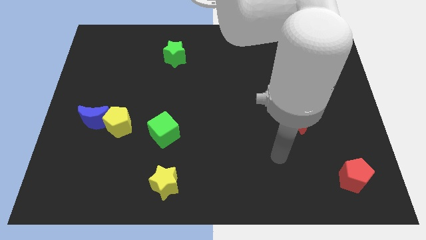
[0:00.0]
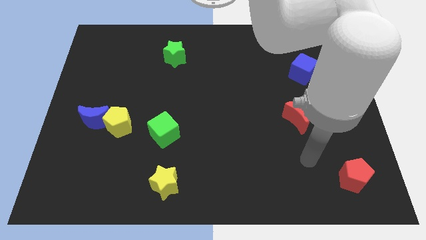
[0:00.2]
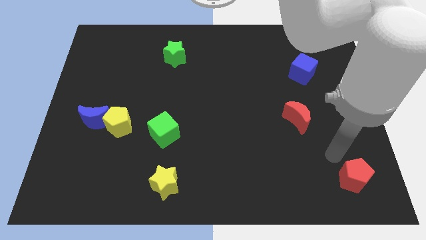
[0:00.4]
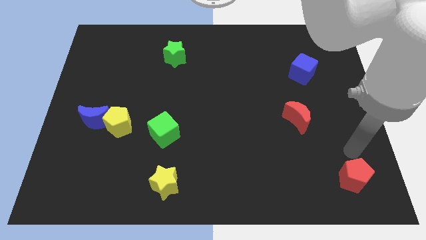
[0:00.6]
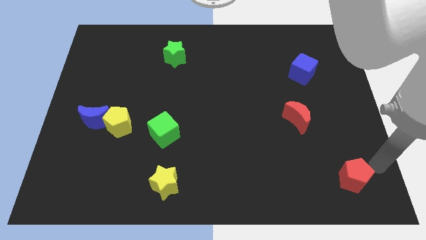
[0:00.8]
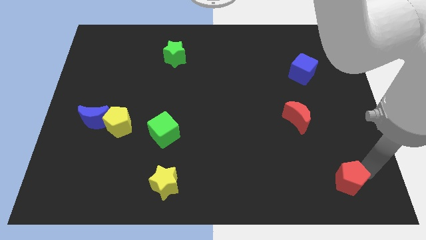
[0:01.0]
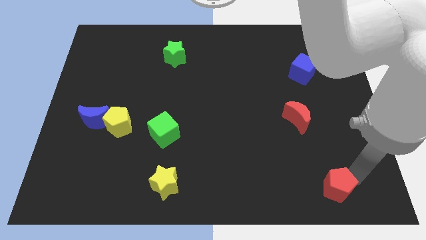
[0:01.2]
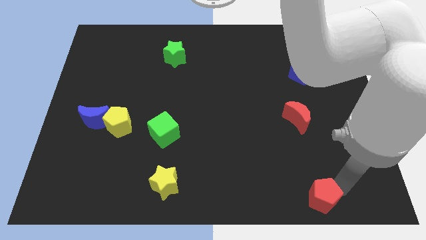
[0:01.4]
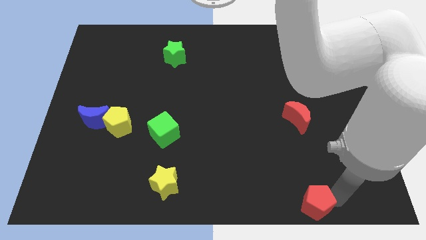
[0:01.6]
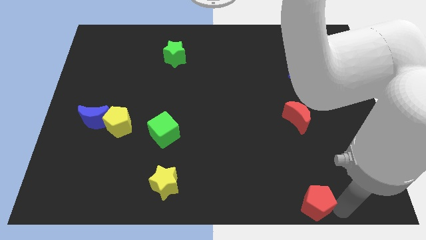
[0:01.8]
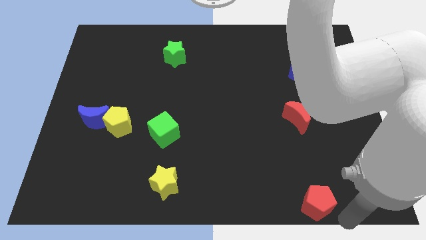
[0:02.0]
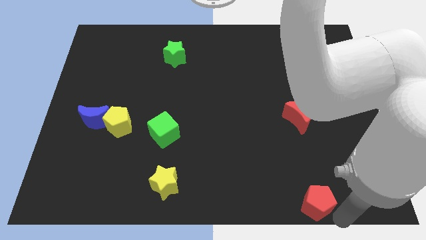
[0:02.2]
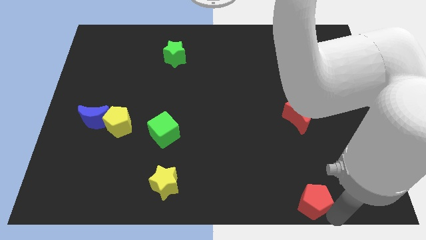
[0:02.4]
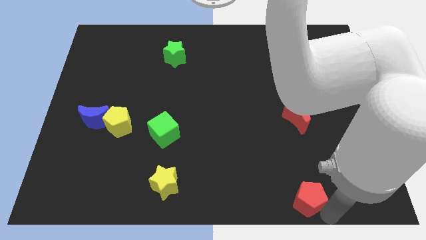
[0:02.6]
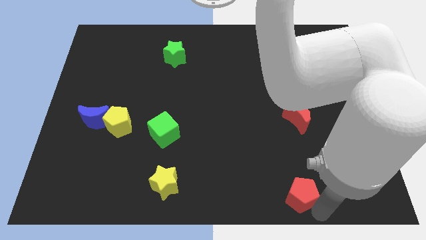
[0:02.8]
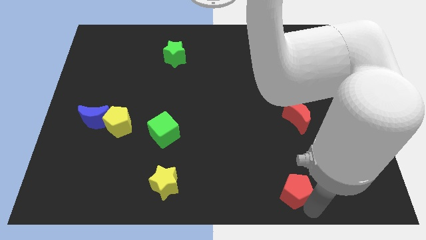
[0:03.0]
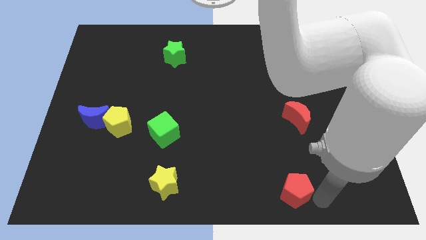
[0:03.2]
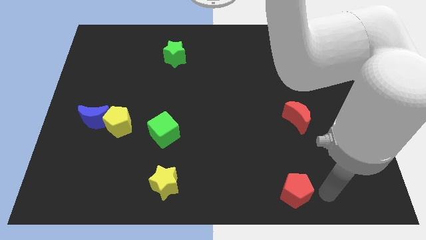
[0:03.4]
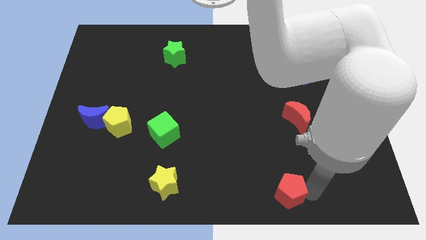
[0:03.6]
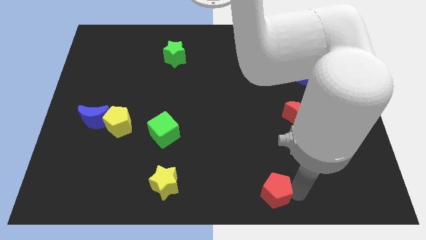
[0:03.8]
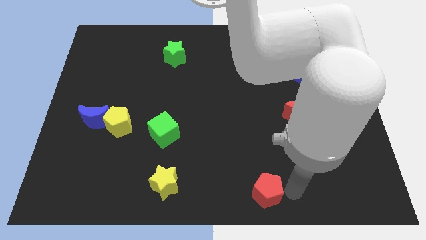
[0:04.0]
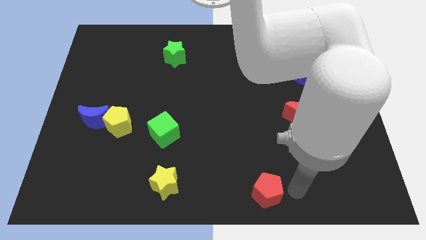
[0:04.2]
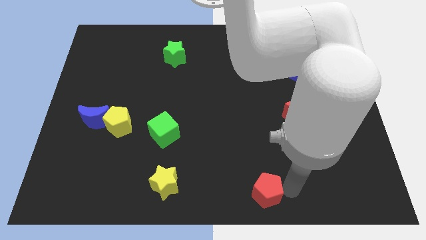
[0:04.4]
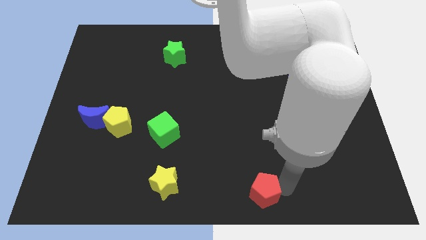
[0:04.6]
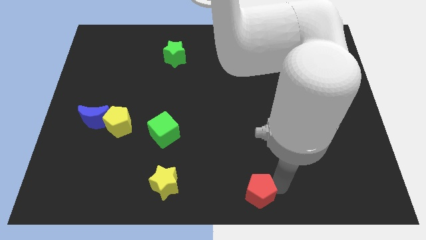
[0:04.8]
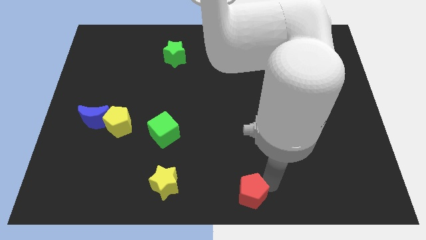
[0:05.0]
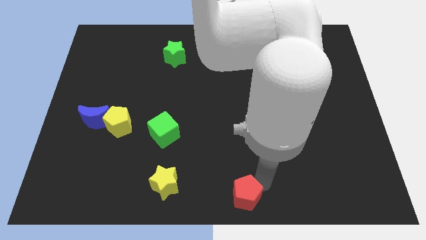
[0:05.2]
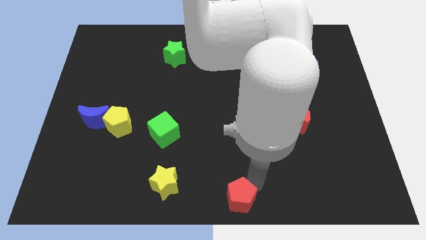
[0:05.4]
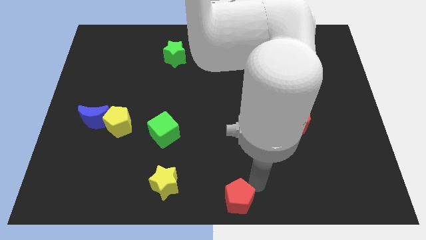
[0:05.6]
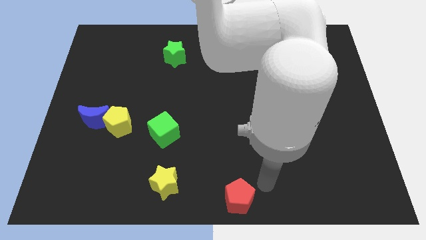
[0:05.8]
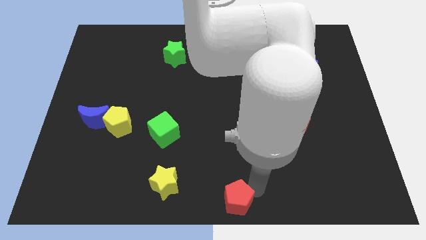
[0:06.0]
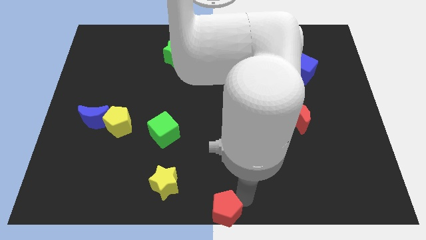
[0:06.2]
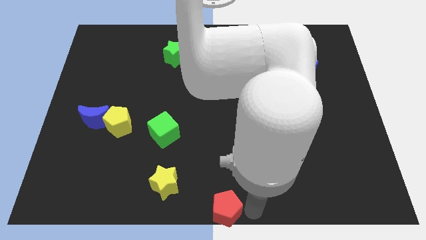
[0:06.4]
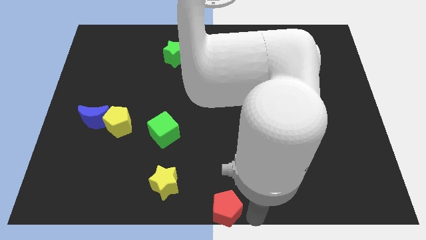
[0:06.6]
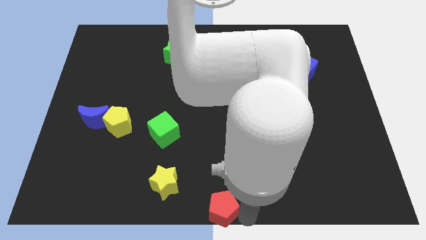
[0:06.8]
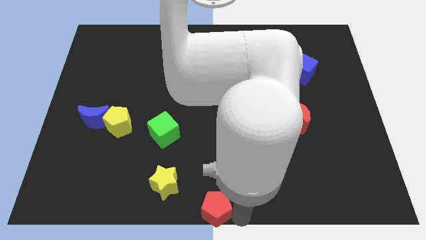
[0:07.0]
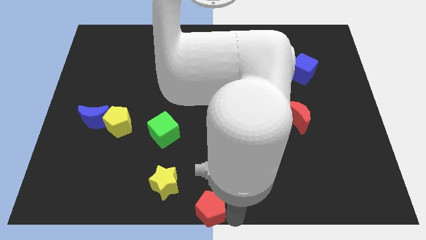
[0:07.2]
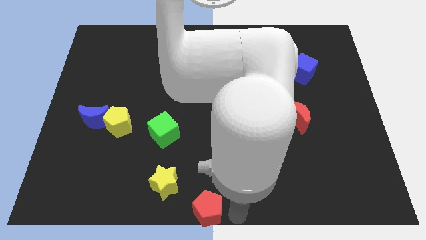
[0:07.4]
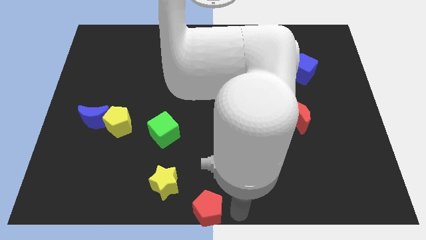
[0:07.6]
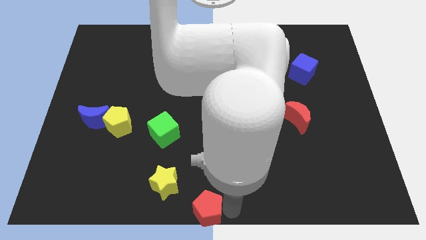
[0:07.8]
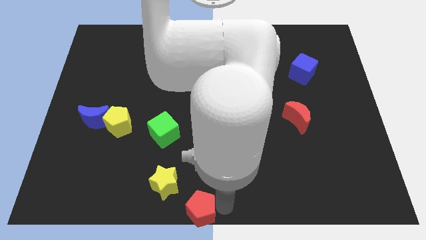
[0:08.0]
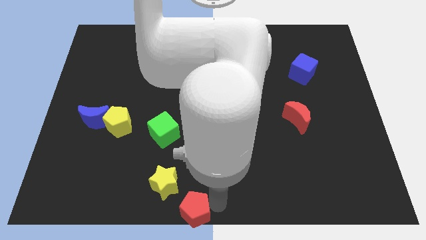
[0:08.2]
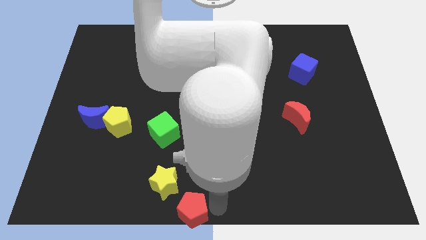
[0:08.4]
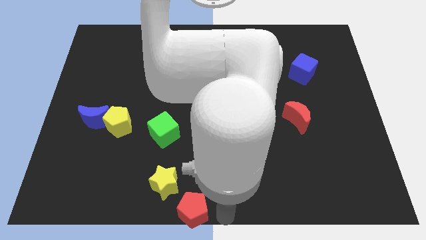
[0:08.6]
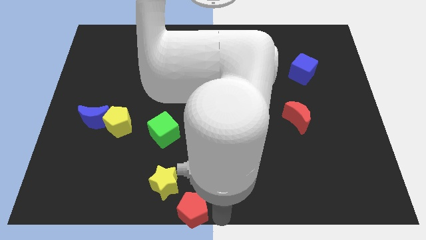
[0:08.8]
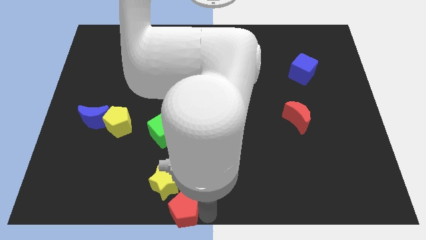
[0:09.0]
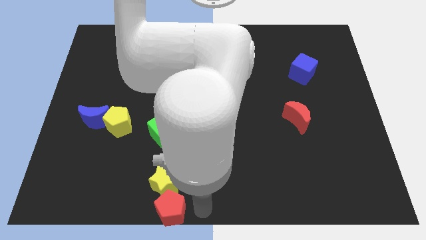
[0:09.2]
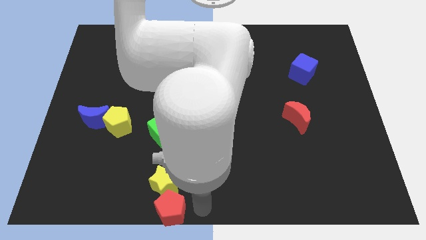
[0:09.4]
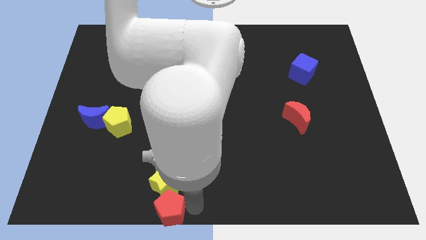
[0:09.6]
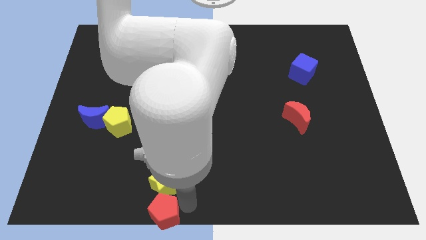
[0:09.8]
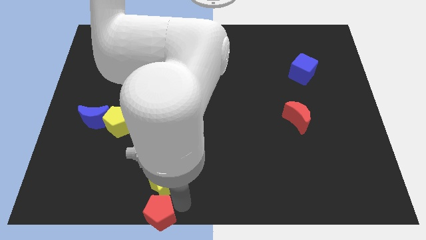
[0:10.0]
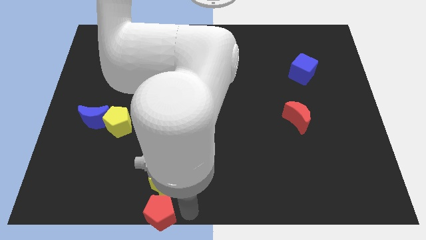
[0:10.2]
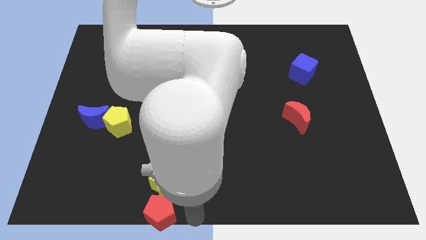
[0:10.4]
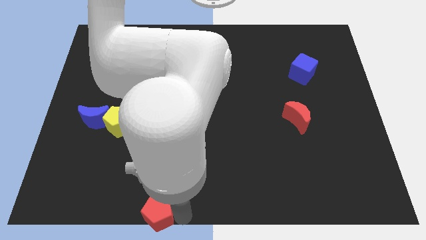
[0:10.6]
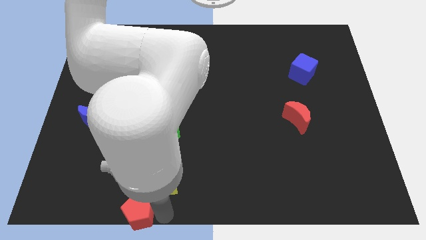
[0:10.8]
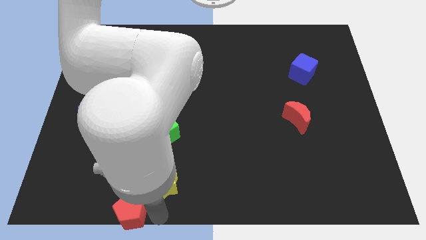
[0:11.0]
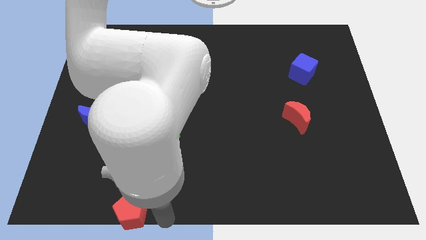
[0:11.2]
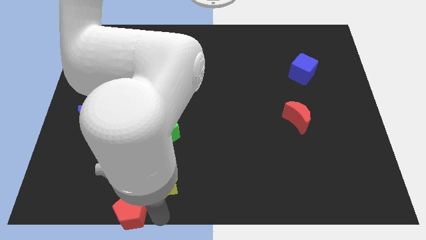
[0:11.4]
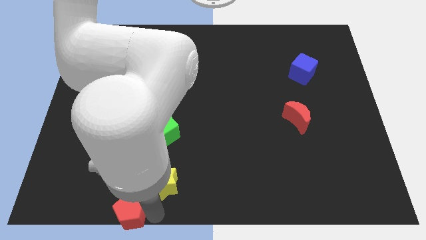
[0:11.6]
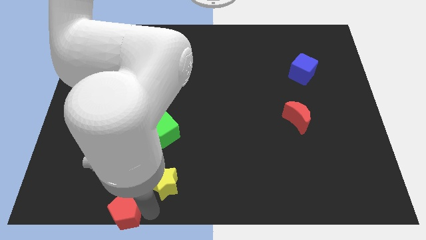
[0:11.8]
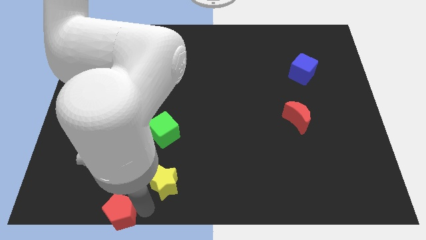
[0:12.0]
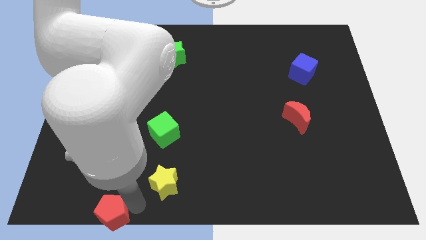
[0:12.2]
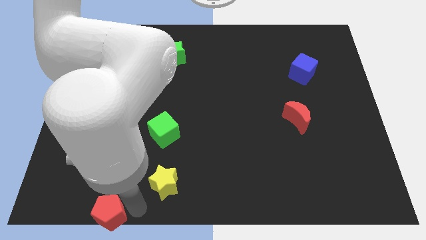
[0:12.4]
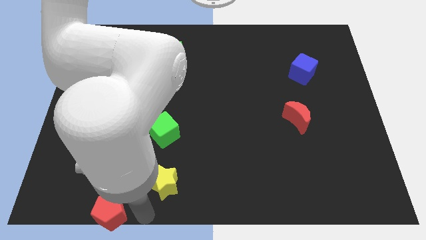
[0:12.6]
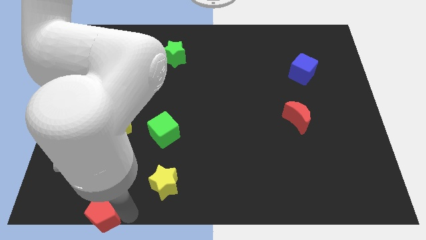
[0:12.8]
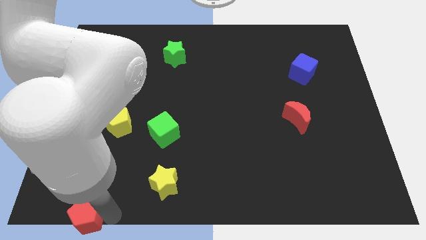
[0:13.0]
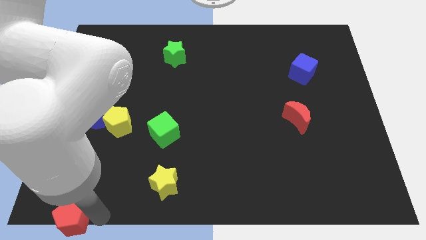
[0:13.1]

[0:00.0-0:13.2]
push the red pentagon to the bottom left

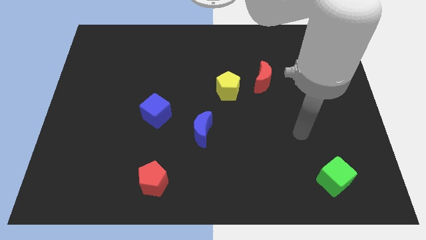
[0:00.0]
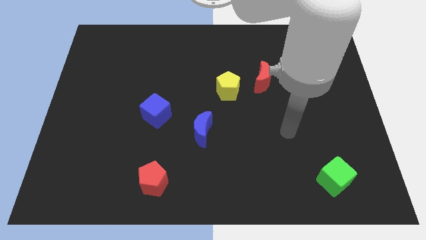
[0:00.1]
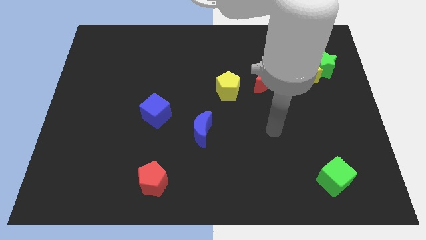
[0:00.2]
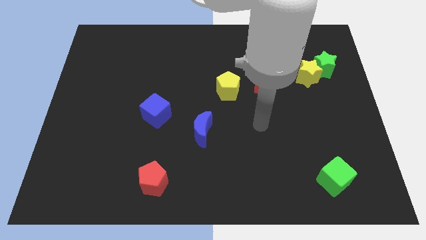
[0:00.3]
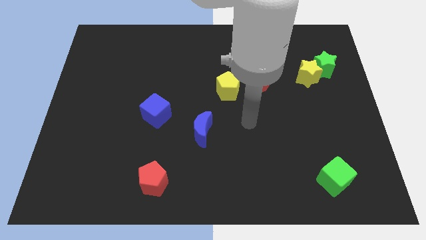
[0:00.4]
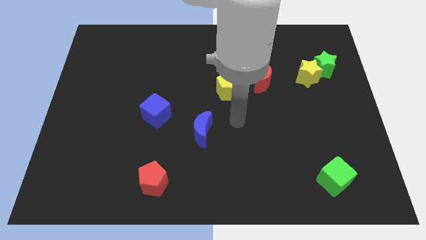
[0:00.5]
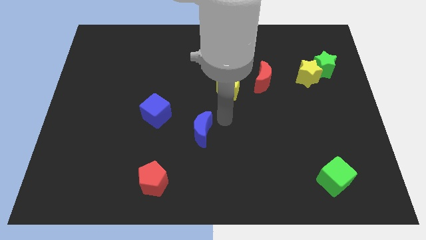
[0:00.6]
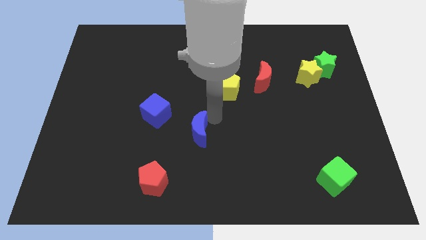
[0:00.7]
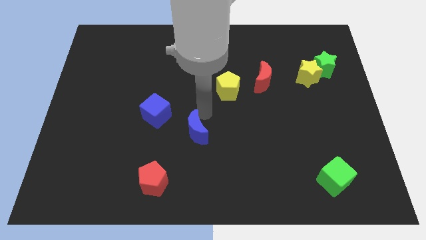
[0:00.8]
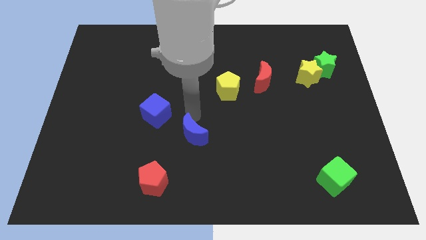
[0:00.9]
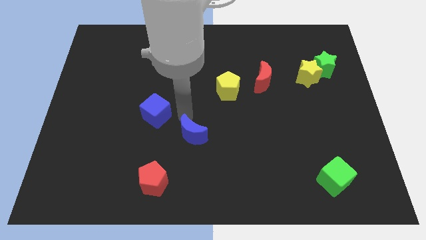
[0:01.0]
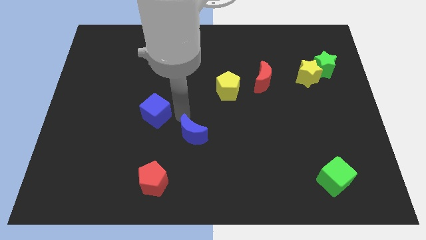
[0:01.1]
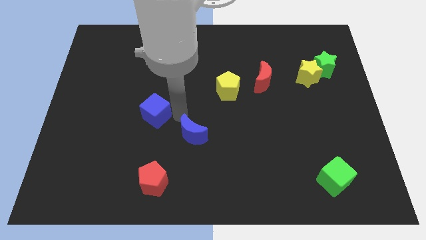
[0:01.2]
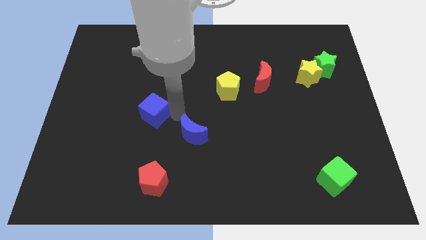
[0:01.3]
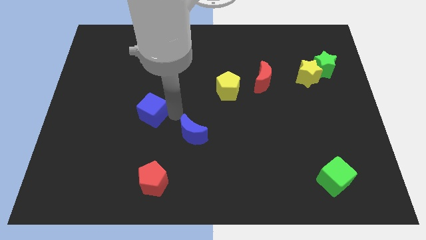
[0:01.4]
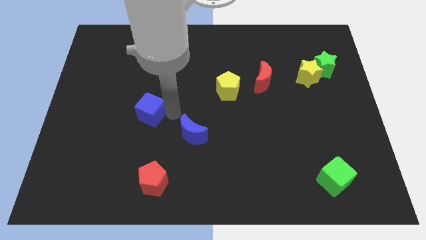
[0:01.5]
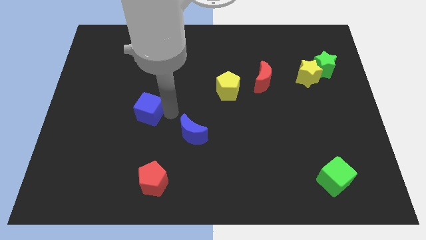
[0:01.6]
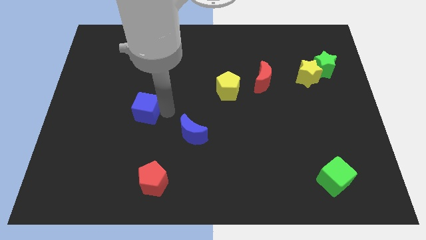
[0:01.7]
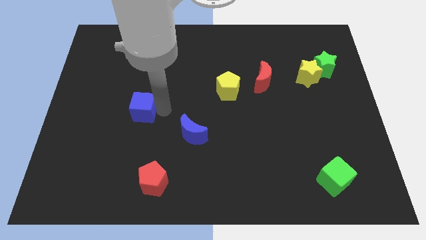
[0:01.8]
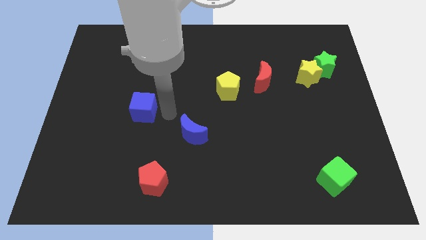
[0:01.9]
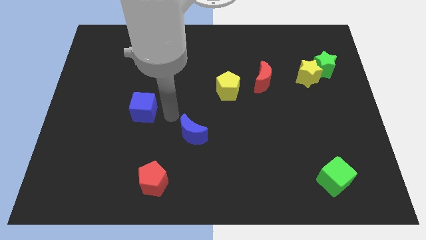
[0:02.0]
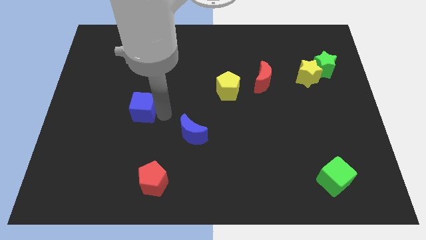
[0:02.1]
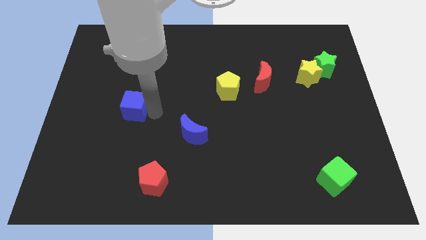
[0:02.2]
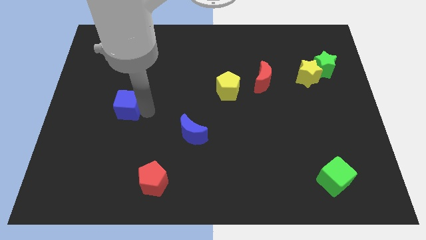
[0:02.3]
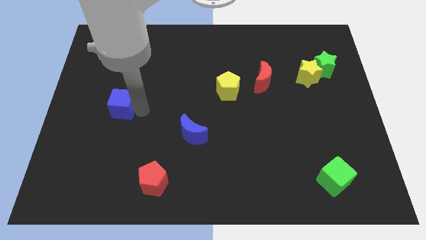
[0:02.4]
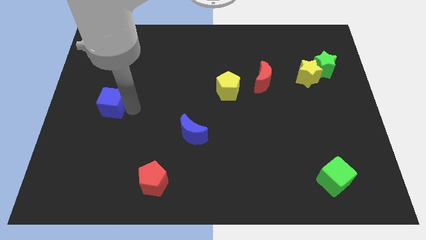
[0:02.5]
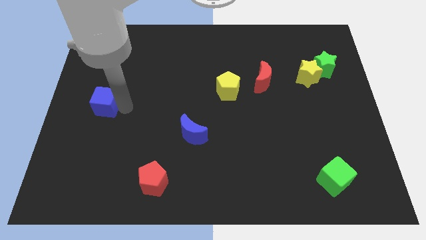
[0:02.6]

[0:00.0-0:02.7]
slide the blue cube to the center left
